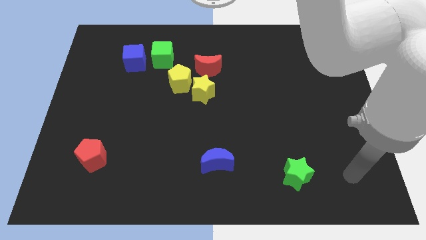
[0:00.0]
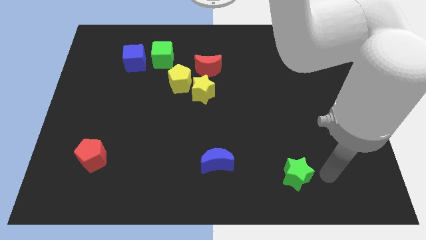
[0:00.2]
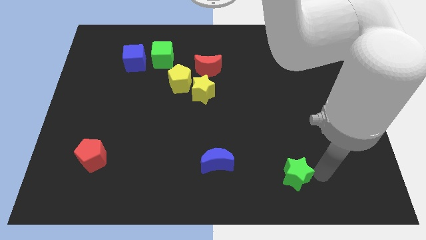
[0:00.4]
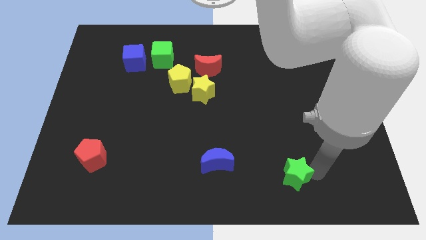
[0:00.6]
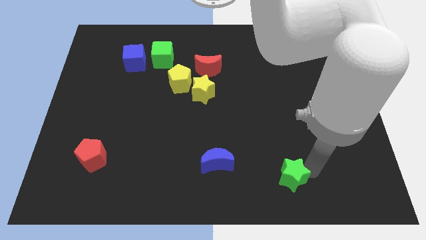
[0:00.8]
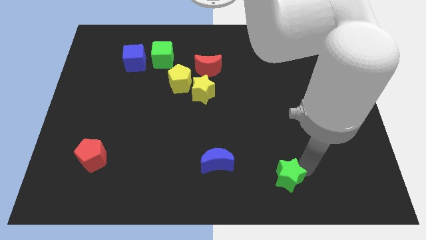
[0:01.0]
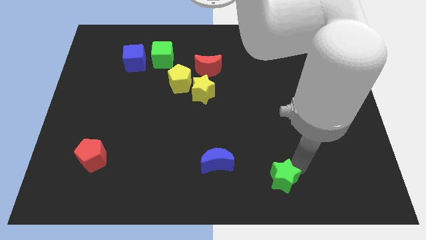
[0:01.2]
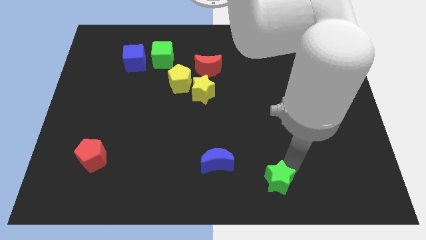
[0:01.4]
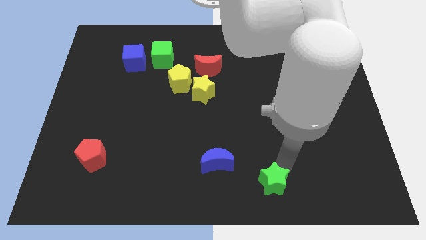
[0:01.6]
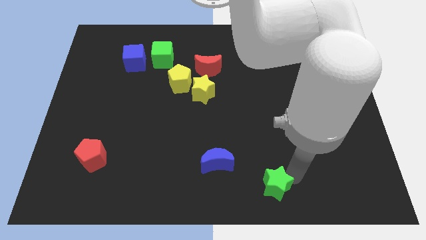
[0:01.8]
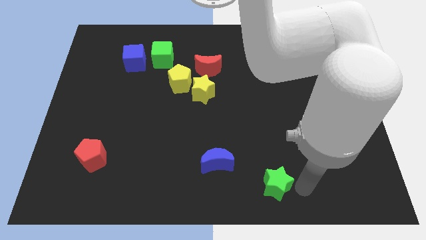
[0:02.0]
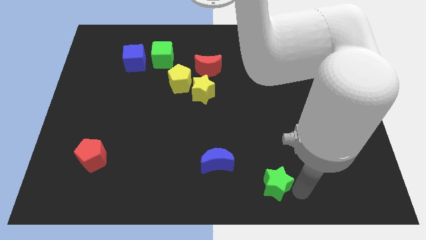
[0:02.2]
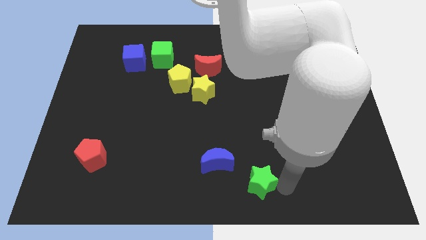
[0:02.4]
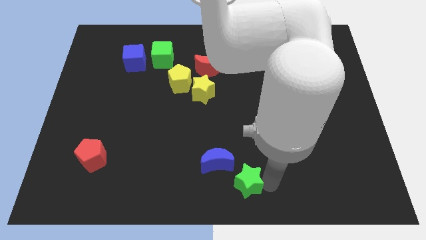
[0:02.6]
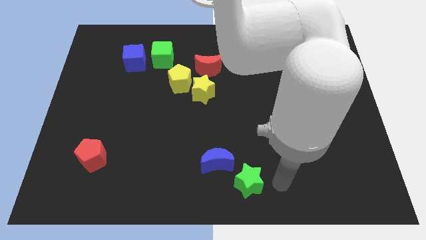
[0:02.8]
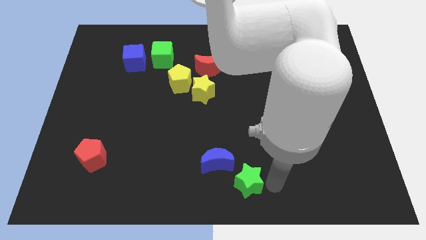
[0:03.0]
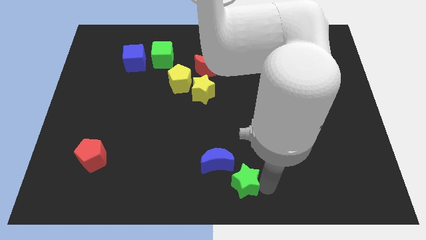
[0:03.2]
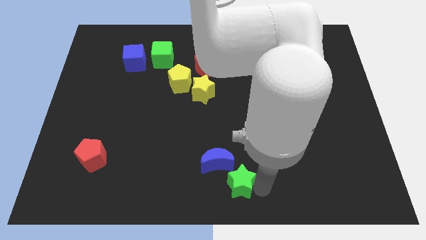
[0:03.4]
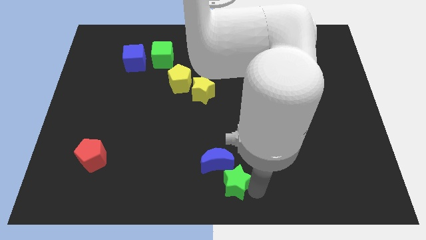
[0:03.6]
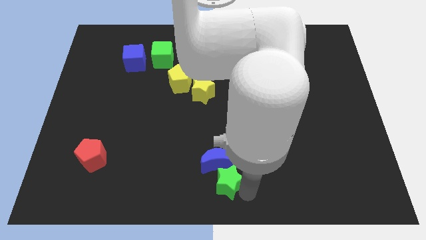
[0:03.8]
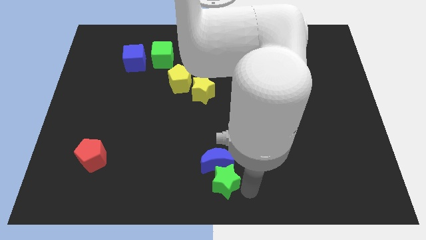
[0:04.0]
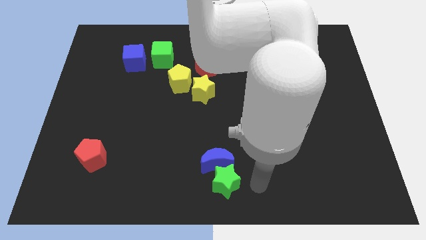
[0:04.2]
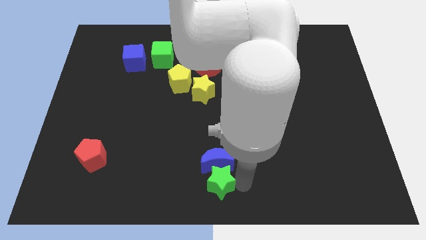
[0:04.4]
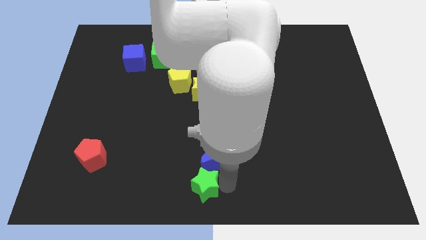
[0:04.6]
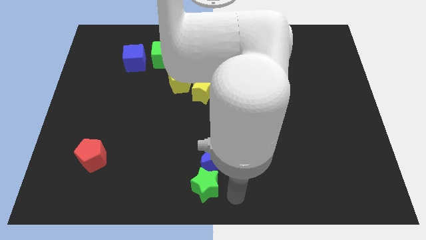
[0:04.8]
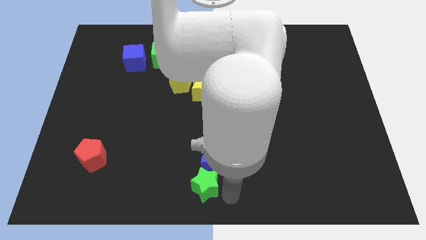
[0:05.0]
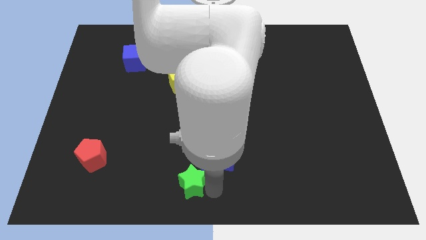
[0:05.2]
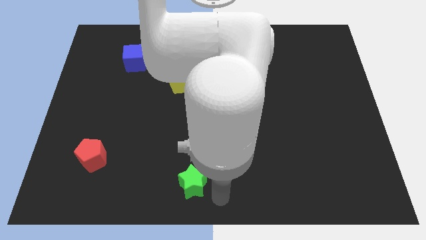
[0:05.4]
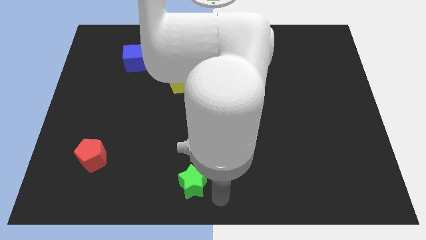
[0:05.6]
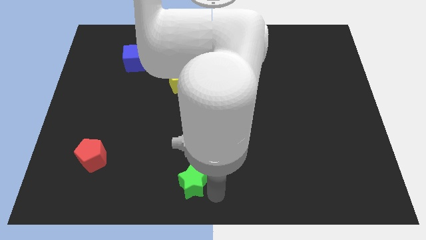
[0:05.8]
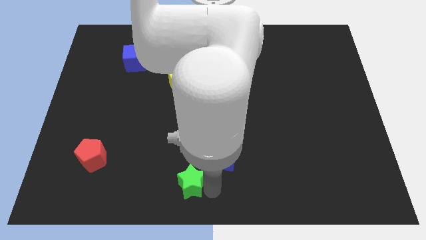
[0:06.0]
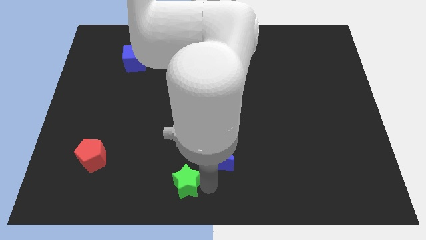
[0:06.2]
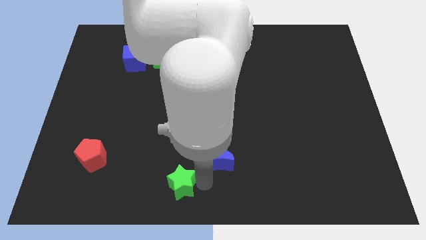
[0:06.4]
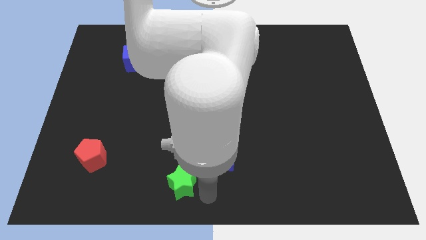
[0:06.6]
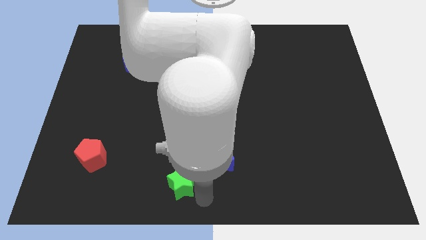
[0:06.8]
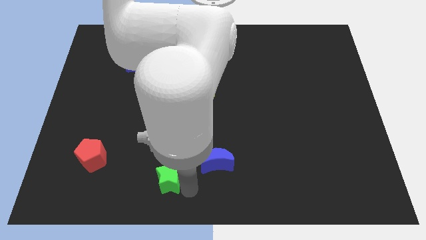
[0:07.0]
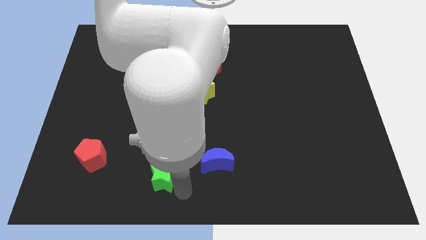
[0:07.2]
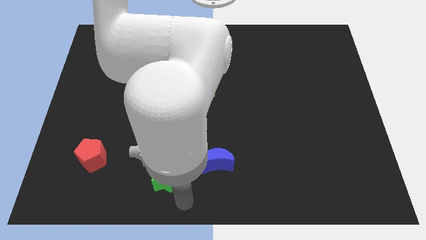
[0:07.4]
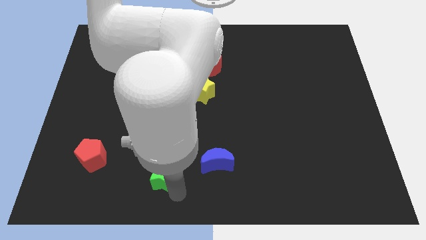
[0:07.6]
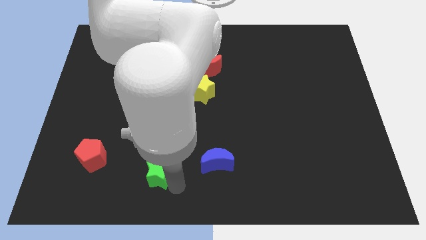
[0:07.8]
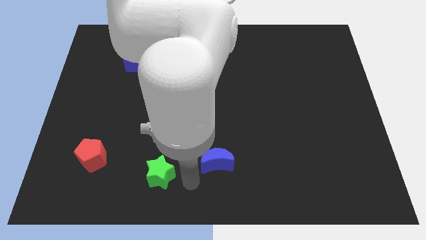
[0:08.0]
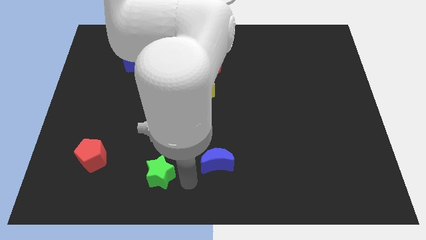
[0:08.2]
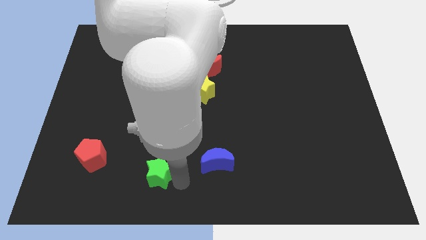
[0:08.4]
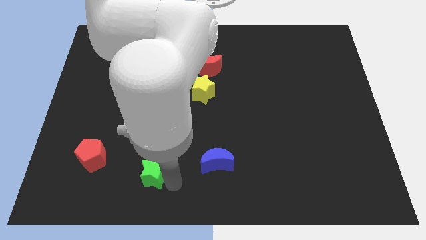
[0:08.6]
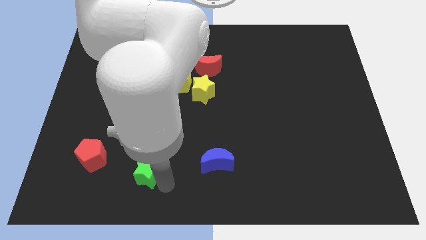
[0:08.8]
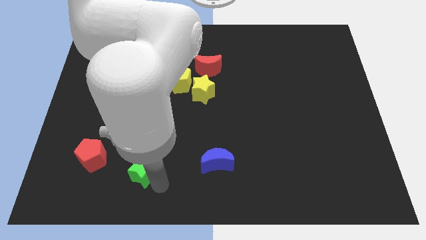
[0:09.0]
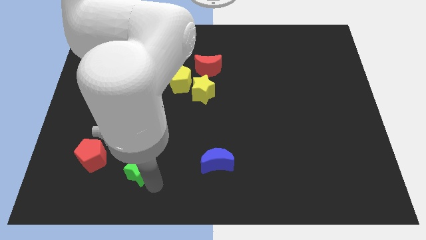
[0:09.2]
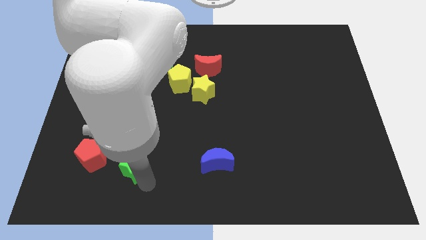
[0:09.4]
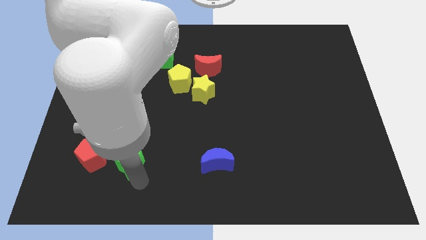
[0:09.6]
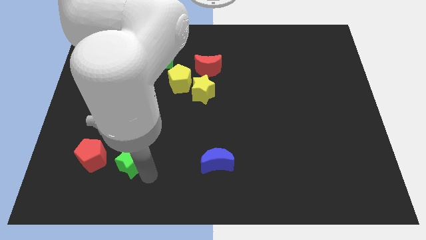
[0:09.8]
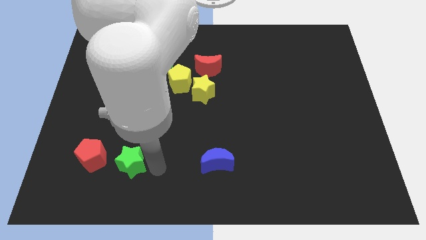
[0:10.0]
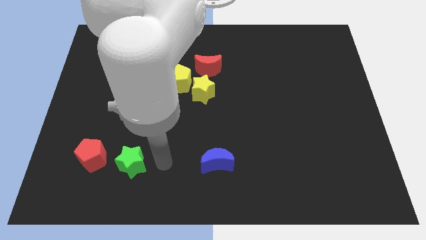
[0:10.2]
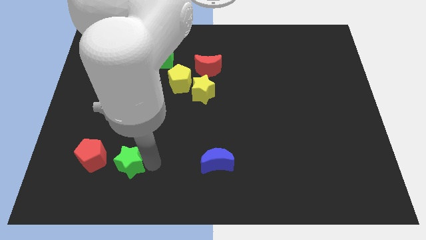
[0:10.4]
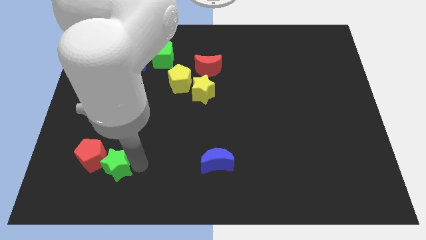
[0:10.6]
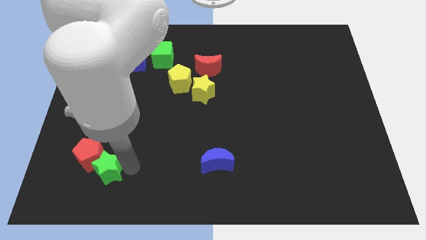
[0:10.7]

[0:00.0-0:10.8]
slide the green star towards the red pentagon

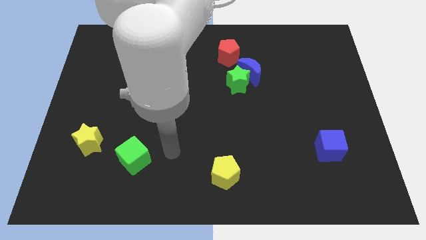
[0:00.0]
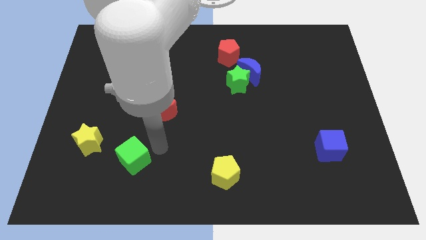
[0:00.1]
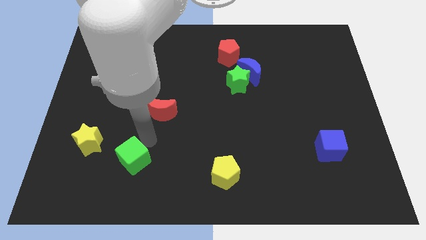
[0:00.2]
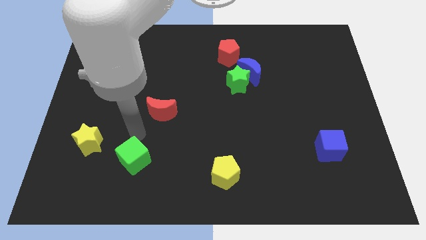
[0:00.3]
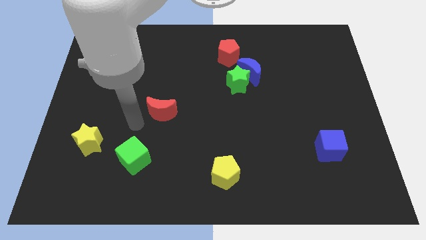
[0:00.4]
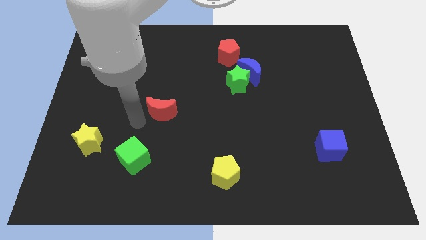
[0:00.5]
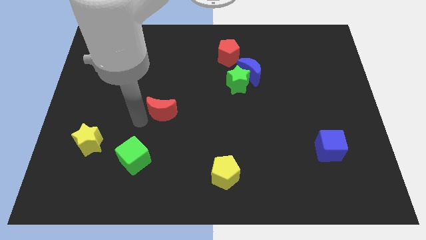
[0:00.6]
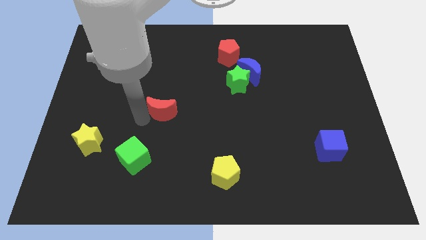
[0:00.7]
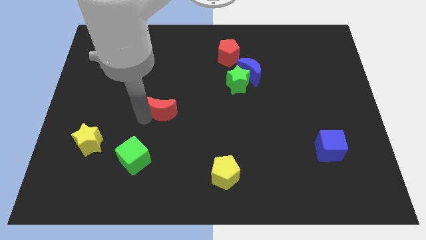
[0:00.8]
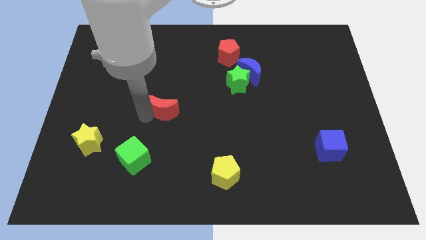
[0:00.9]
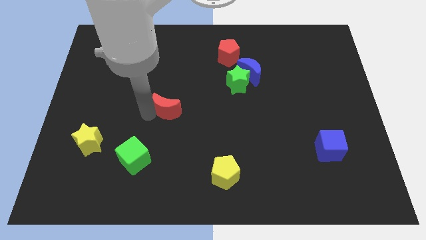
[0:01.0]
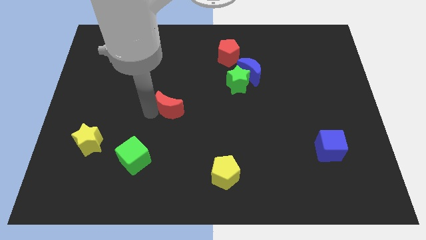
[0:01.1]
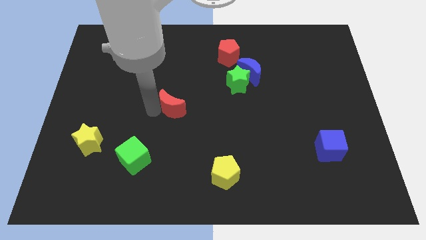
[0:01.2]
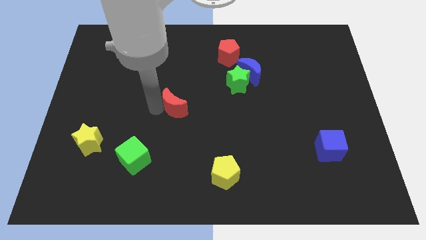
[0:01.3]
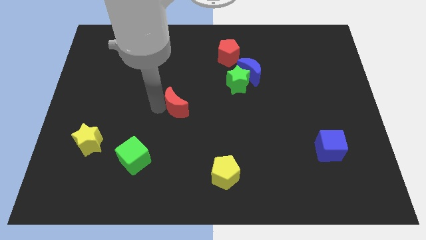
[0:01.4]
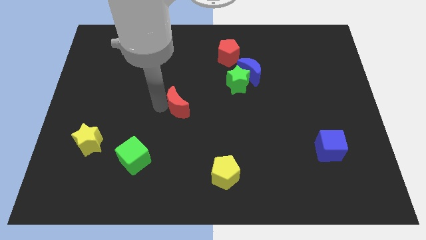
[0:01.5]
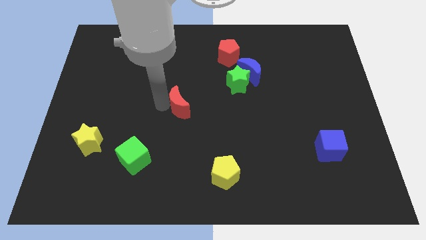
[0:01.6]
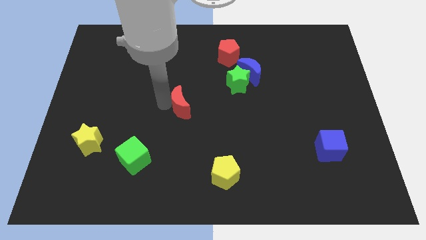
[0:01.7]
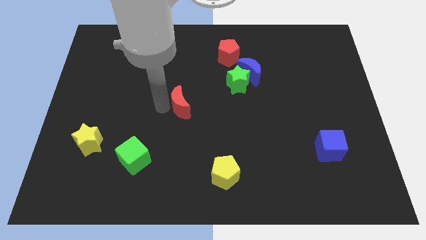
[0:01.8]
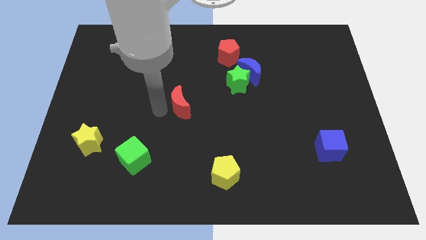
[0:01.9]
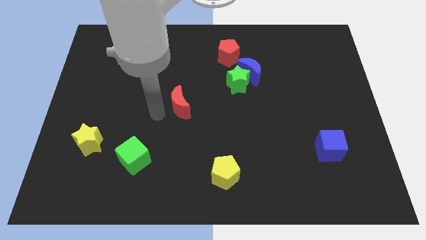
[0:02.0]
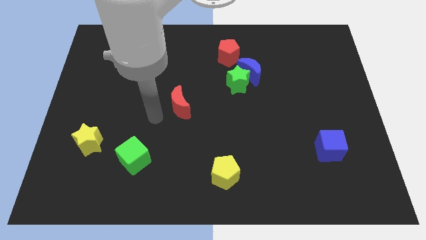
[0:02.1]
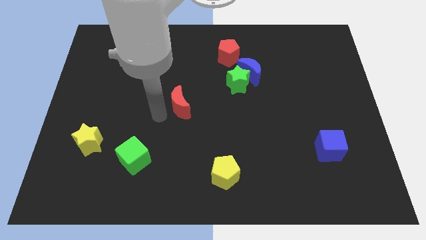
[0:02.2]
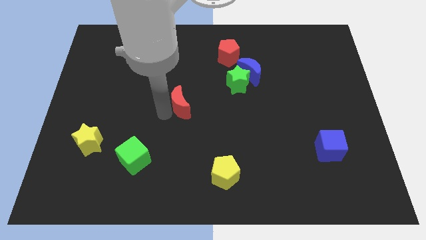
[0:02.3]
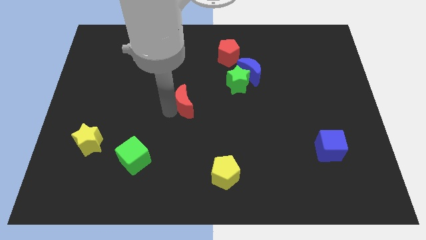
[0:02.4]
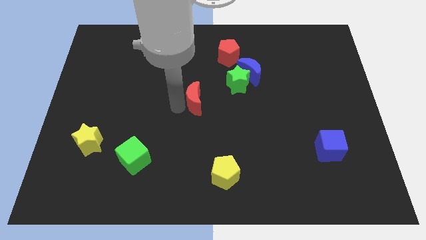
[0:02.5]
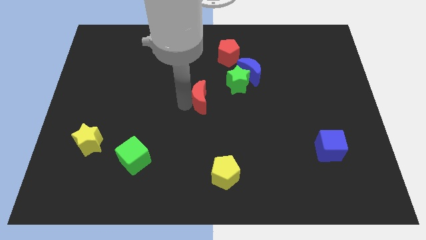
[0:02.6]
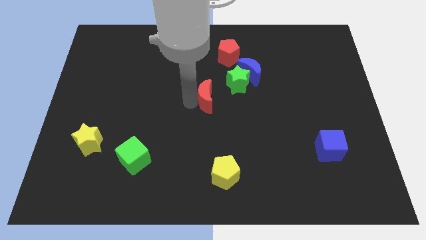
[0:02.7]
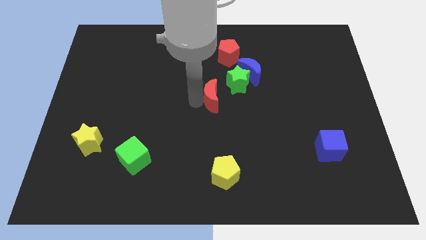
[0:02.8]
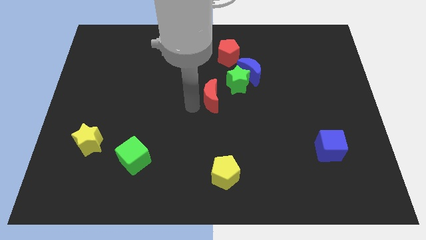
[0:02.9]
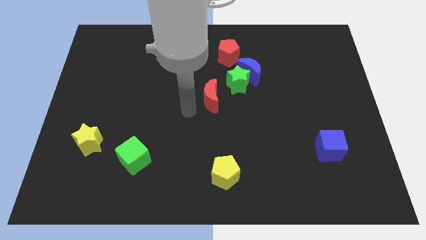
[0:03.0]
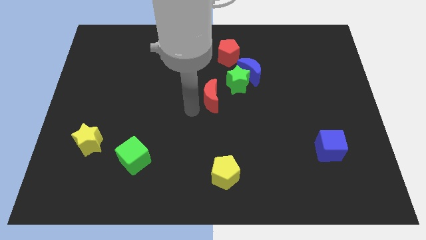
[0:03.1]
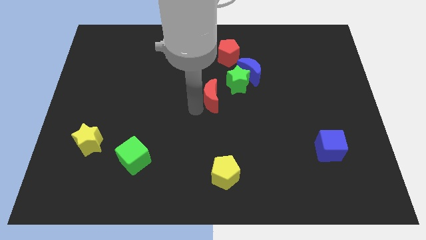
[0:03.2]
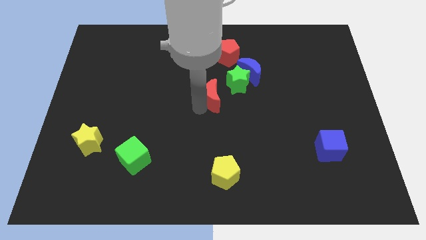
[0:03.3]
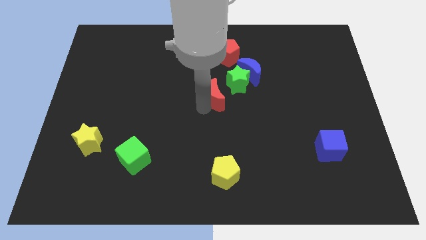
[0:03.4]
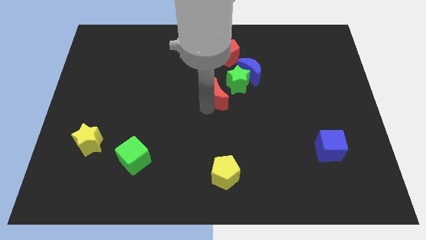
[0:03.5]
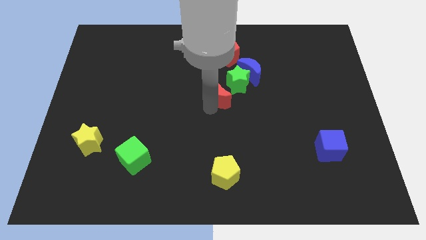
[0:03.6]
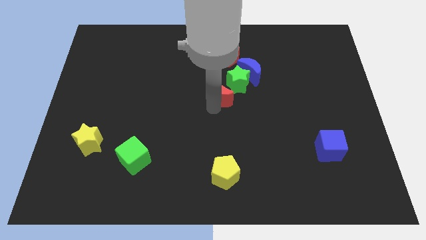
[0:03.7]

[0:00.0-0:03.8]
move the red moon to the green star
